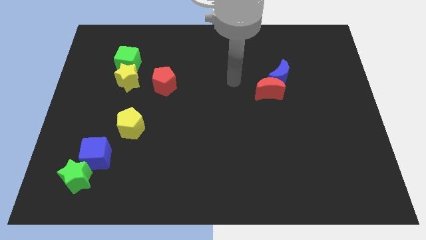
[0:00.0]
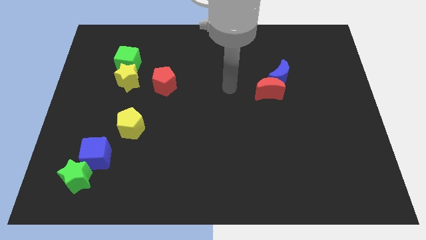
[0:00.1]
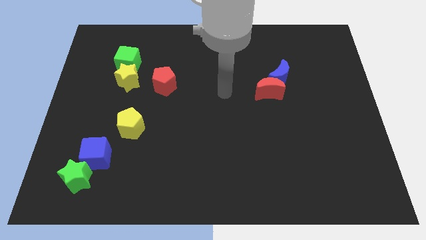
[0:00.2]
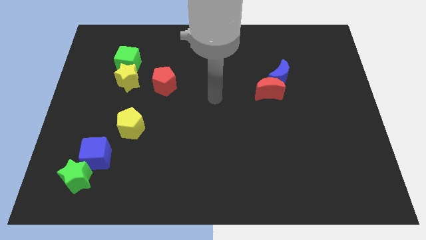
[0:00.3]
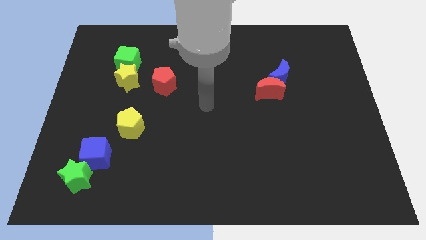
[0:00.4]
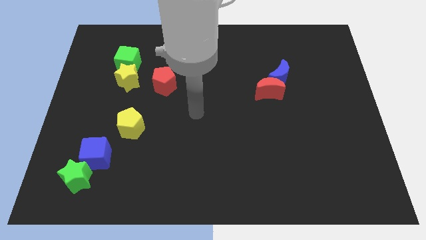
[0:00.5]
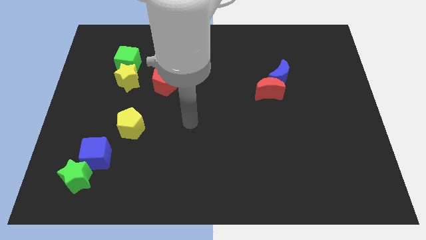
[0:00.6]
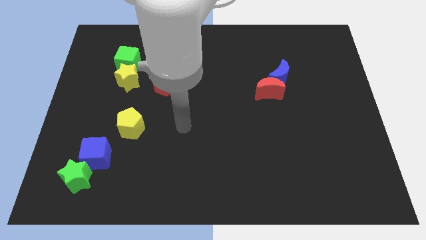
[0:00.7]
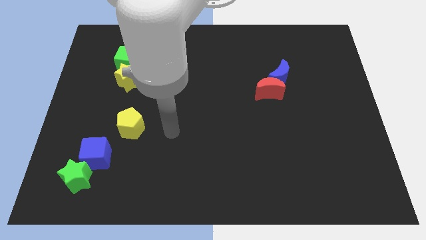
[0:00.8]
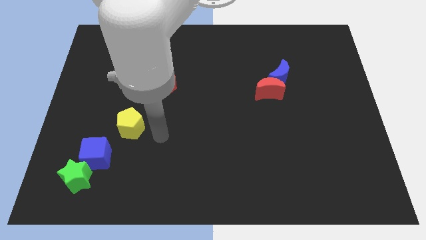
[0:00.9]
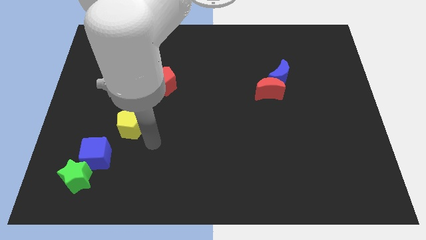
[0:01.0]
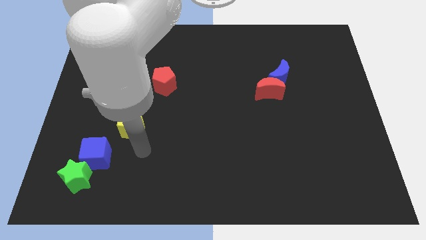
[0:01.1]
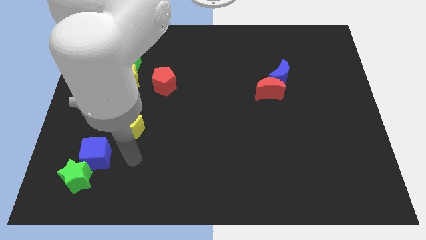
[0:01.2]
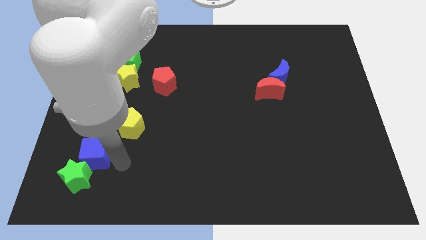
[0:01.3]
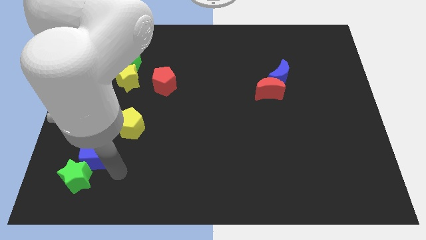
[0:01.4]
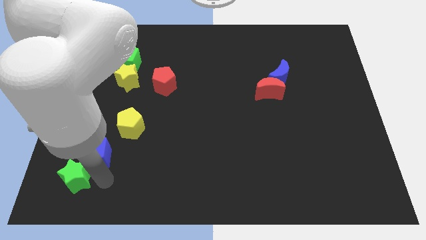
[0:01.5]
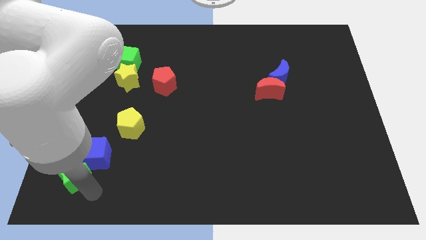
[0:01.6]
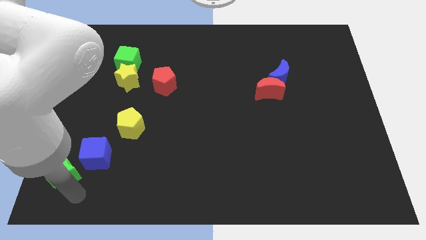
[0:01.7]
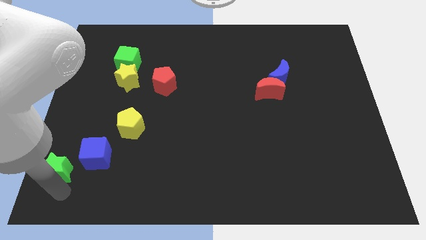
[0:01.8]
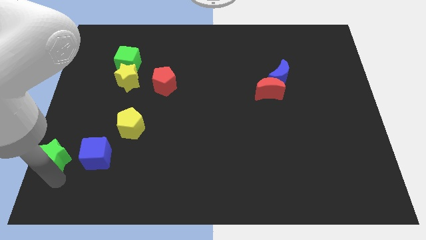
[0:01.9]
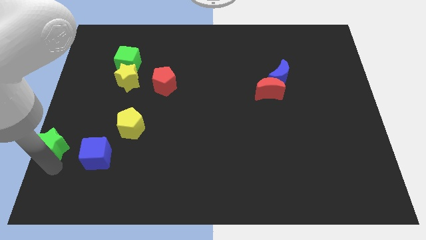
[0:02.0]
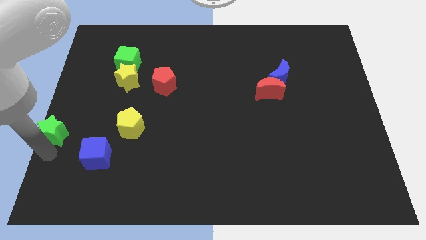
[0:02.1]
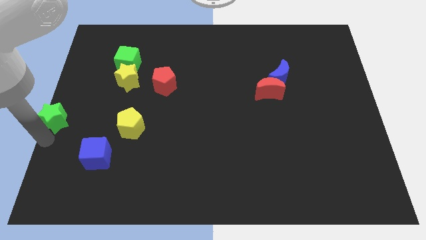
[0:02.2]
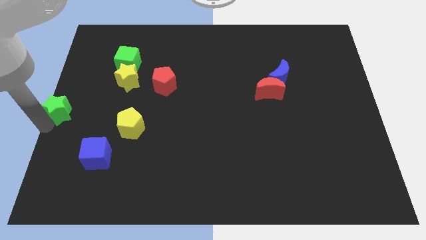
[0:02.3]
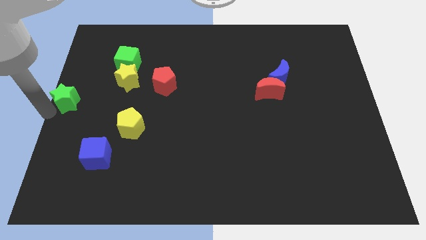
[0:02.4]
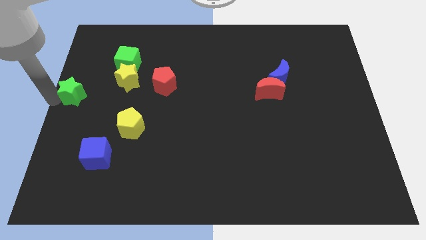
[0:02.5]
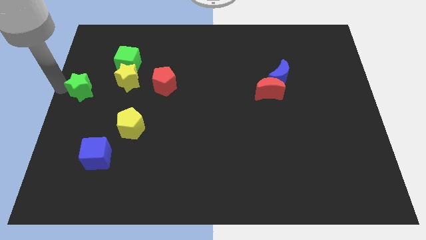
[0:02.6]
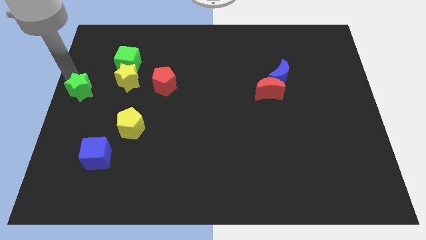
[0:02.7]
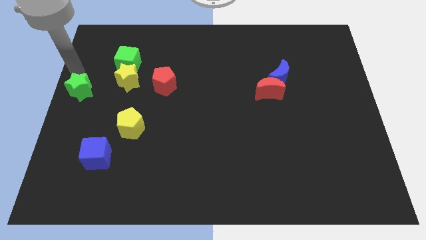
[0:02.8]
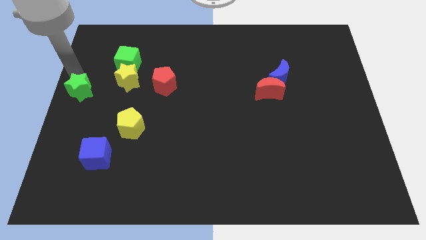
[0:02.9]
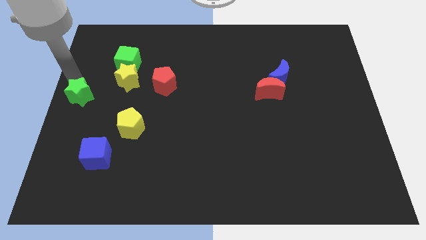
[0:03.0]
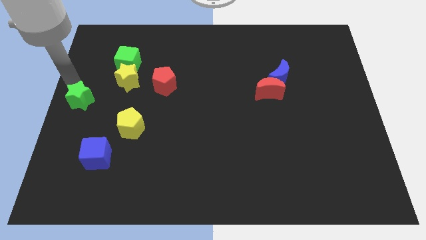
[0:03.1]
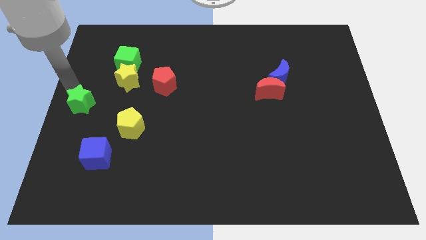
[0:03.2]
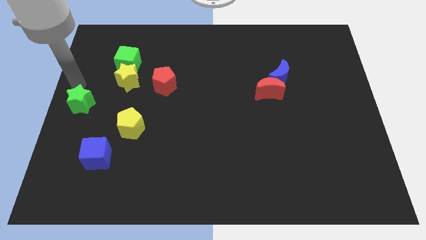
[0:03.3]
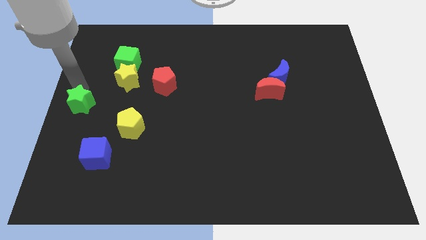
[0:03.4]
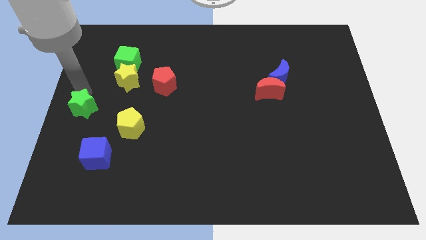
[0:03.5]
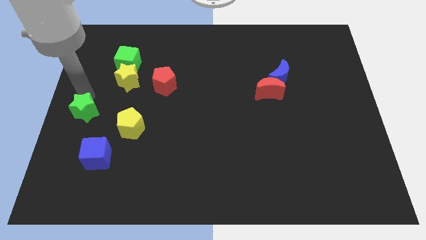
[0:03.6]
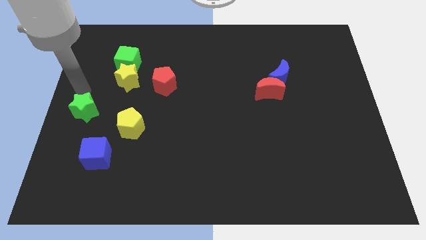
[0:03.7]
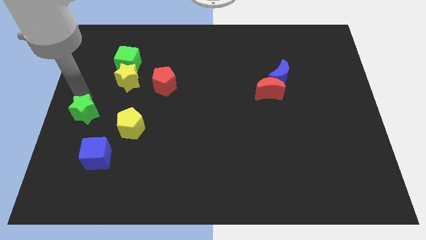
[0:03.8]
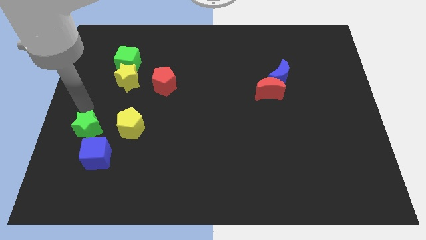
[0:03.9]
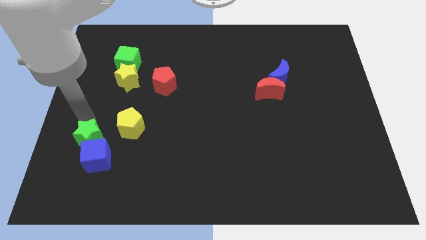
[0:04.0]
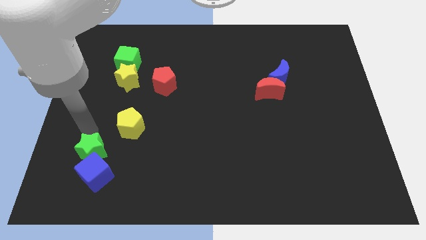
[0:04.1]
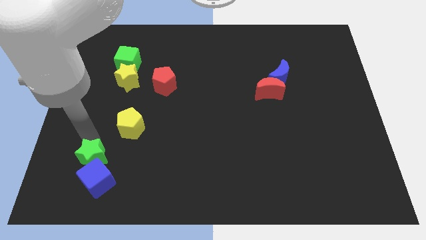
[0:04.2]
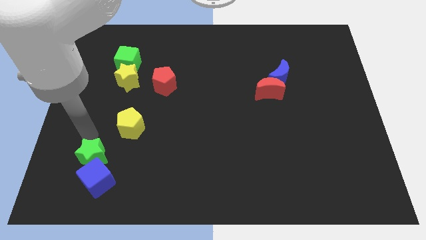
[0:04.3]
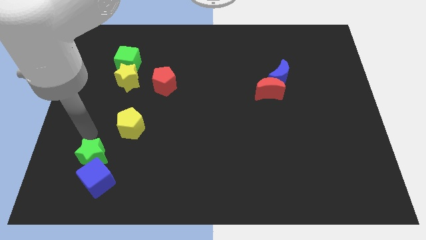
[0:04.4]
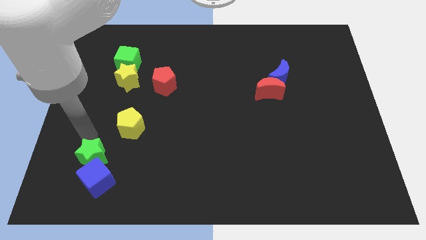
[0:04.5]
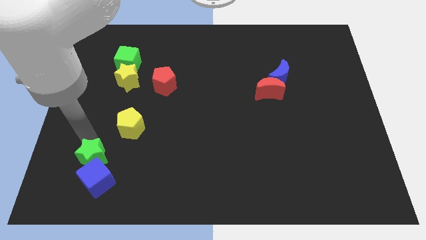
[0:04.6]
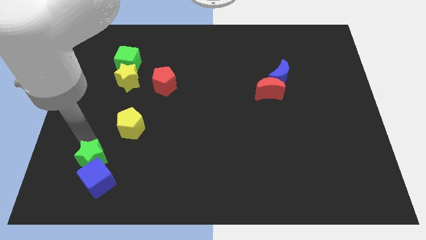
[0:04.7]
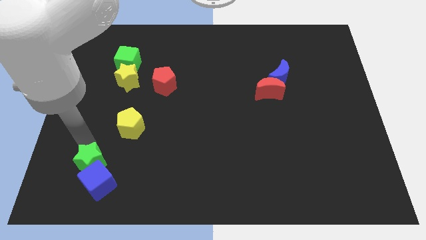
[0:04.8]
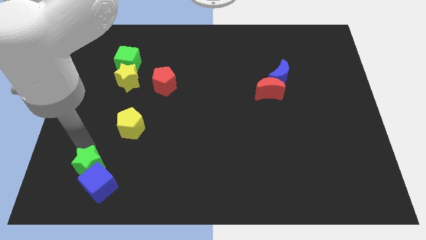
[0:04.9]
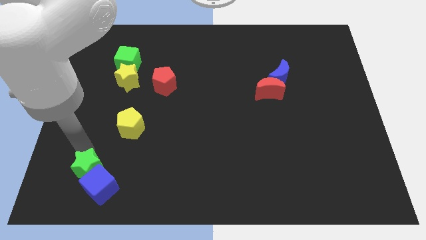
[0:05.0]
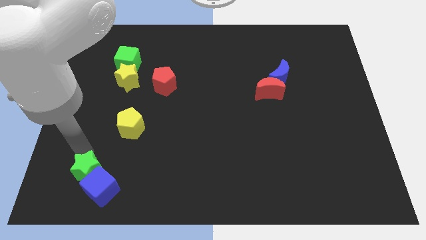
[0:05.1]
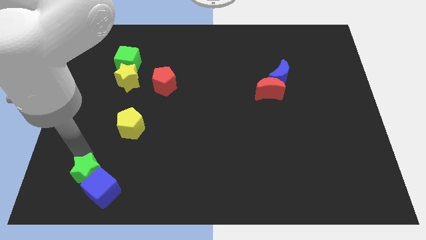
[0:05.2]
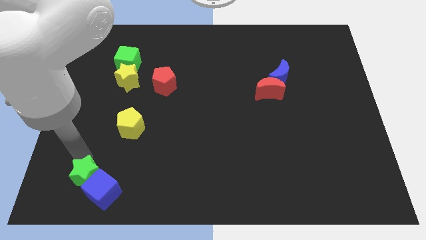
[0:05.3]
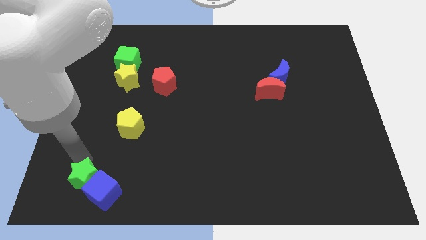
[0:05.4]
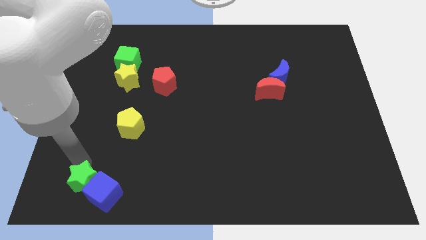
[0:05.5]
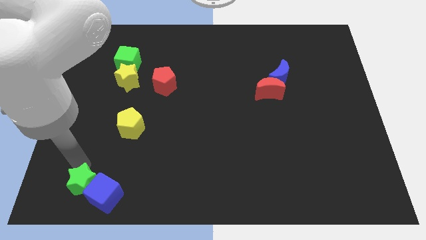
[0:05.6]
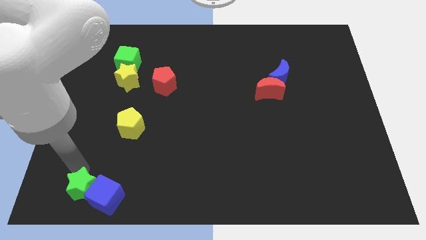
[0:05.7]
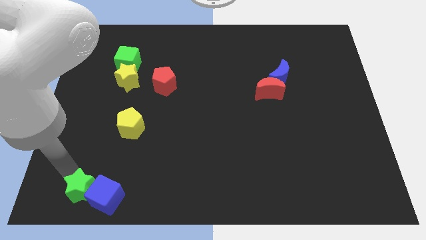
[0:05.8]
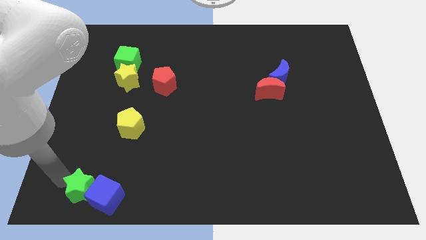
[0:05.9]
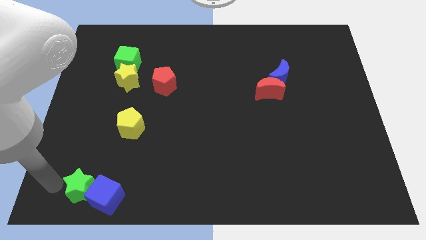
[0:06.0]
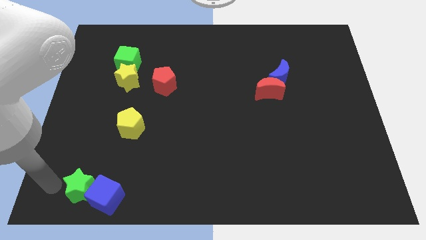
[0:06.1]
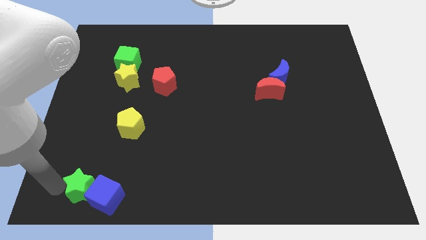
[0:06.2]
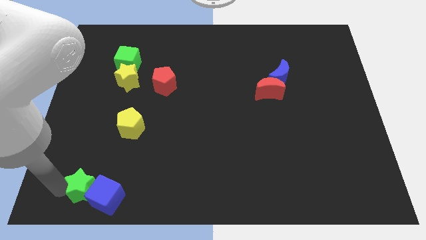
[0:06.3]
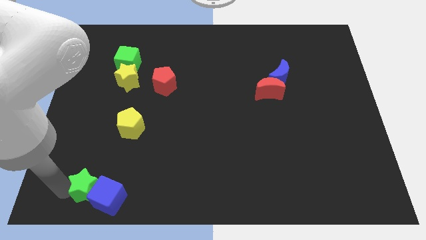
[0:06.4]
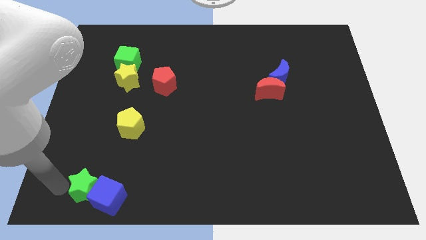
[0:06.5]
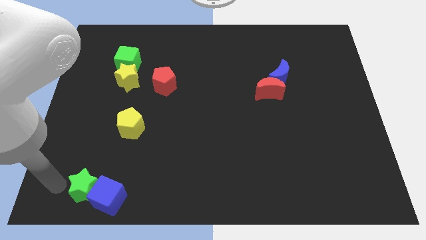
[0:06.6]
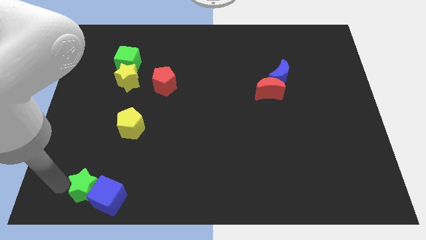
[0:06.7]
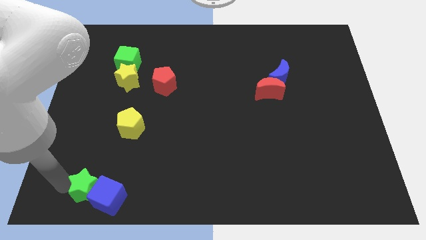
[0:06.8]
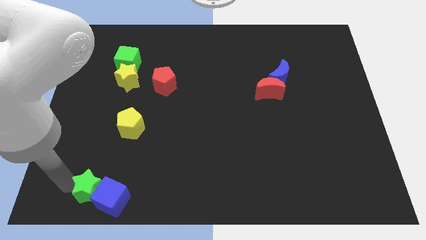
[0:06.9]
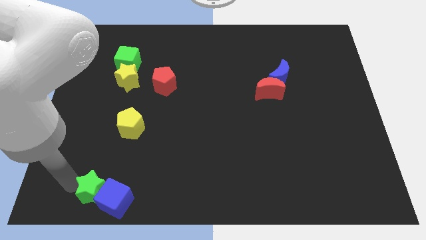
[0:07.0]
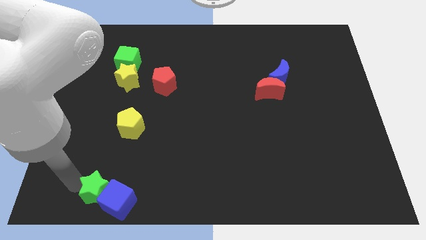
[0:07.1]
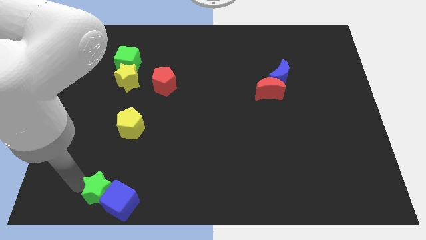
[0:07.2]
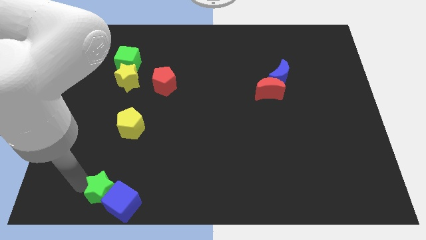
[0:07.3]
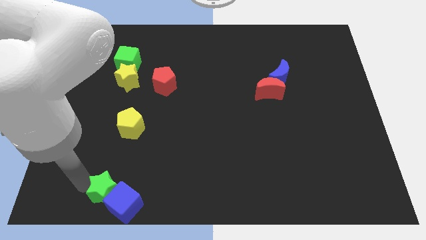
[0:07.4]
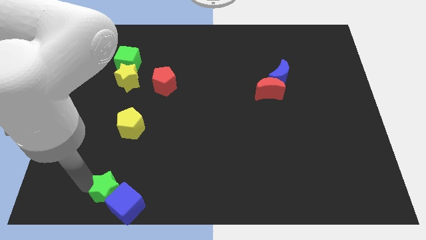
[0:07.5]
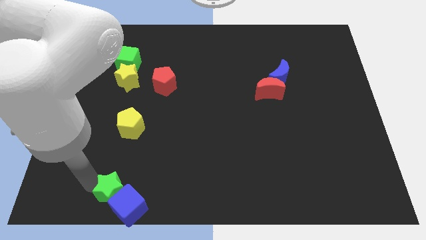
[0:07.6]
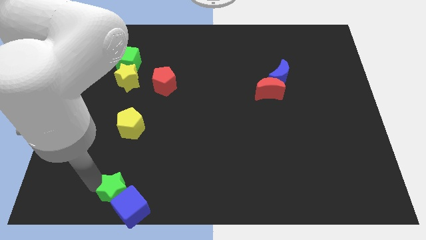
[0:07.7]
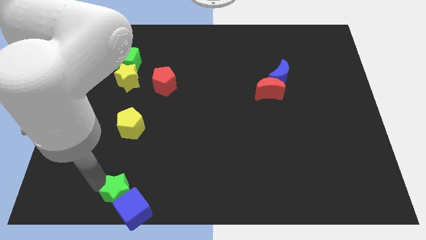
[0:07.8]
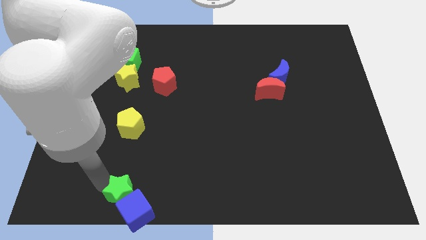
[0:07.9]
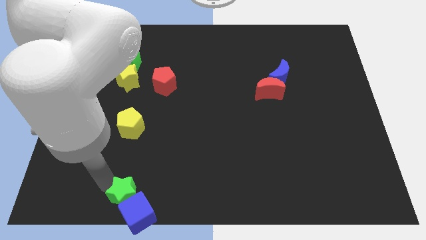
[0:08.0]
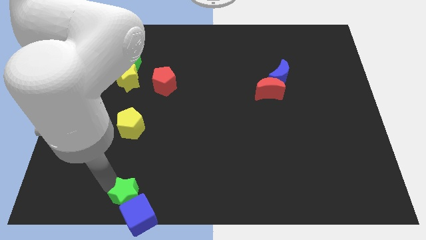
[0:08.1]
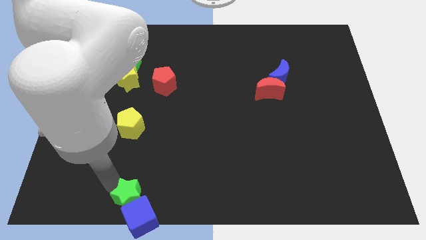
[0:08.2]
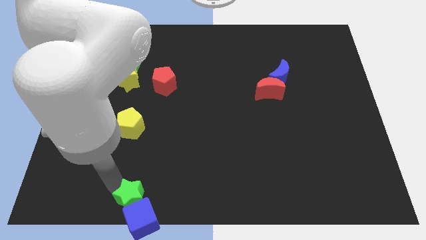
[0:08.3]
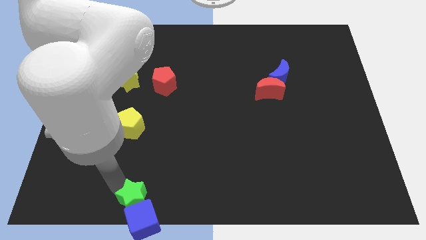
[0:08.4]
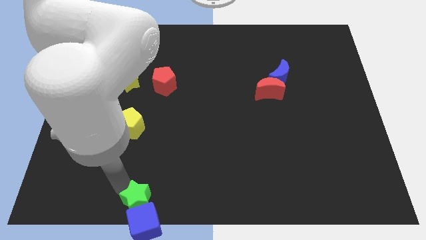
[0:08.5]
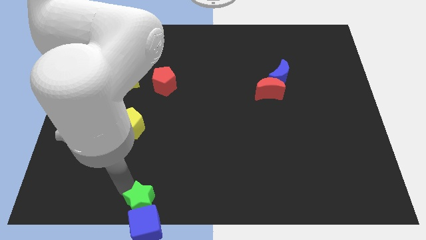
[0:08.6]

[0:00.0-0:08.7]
put the green star to the bottom side
